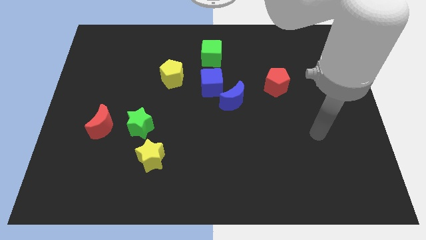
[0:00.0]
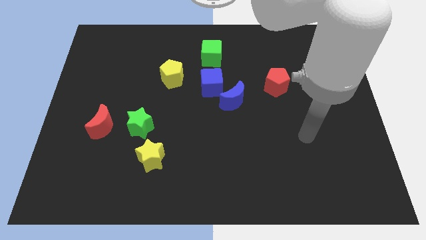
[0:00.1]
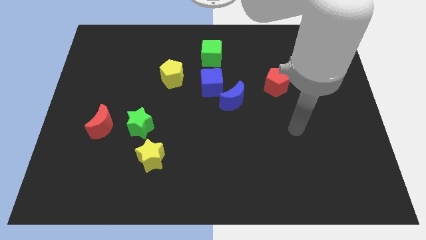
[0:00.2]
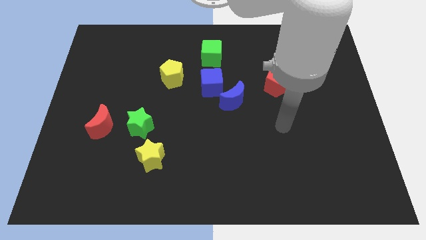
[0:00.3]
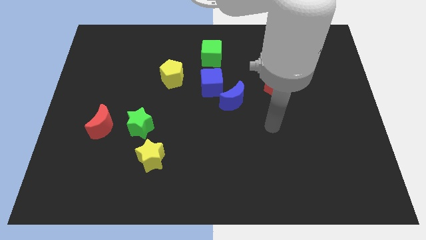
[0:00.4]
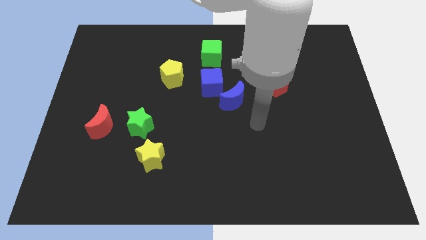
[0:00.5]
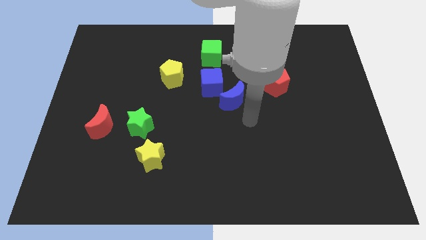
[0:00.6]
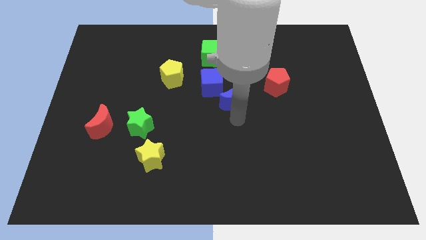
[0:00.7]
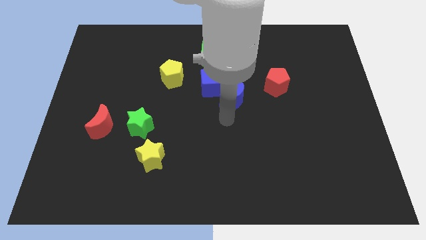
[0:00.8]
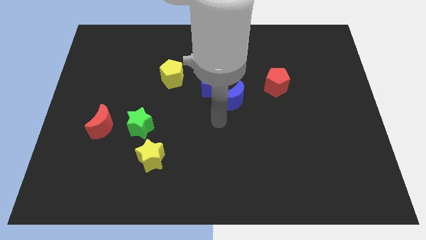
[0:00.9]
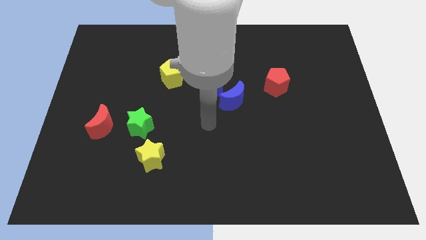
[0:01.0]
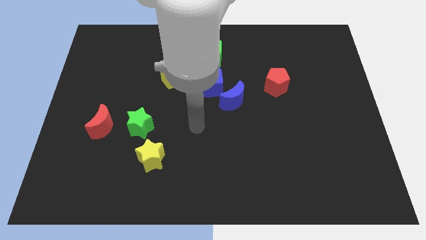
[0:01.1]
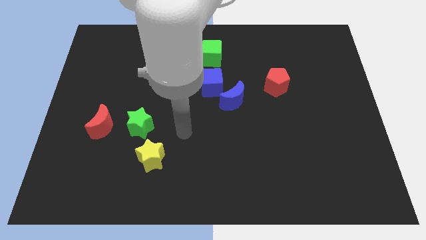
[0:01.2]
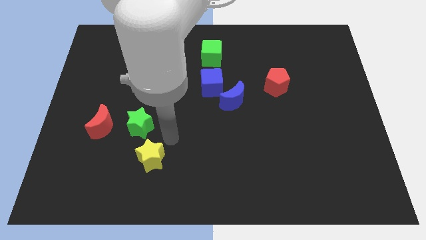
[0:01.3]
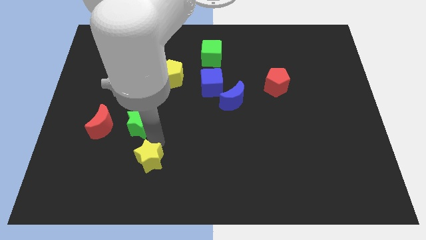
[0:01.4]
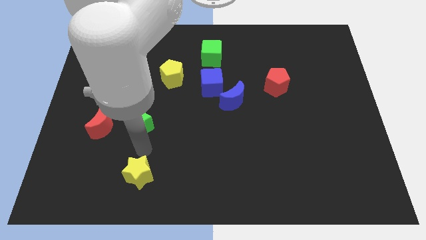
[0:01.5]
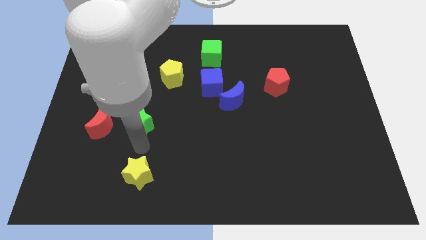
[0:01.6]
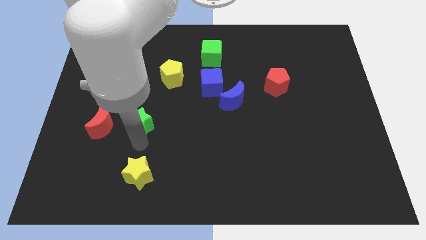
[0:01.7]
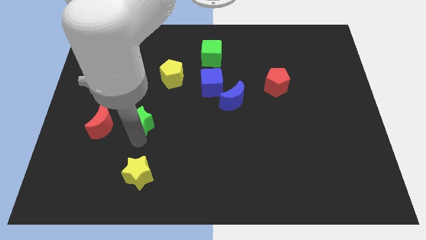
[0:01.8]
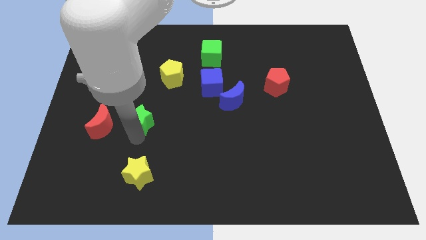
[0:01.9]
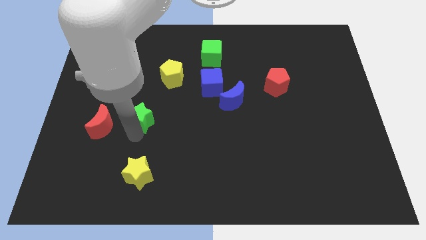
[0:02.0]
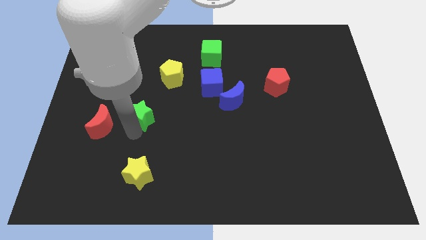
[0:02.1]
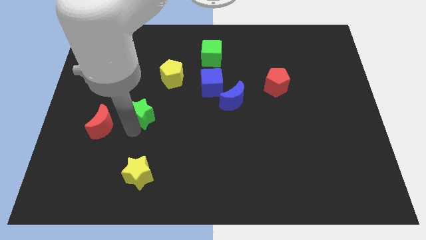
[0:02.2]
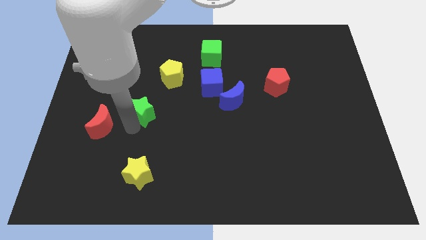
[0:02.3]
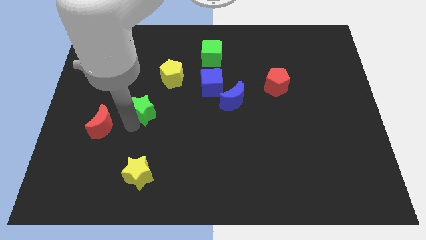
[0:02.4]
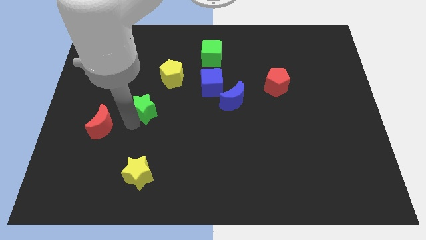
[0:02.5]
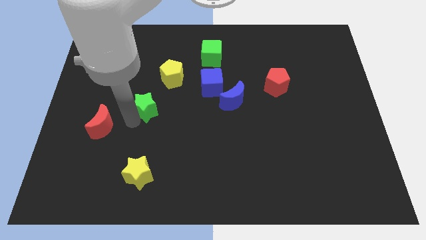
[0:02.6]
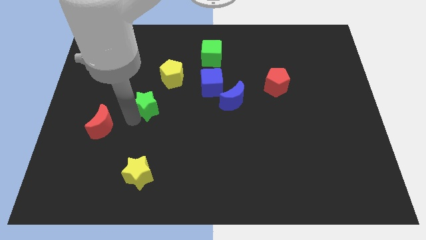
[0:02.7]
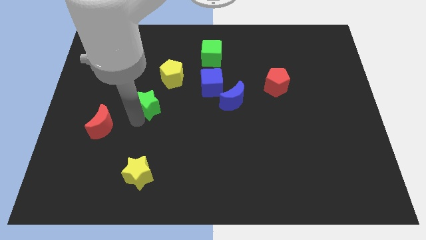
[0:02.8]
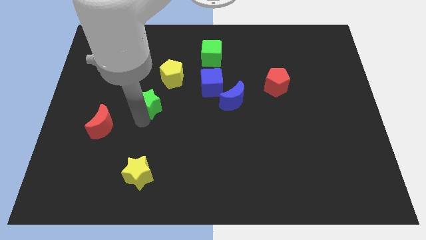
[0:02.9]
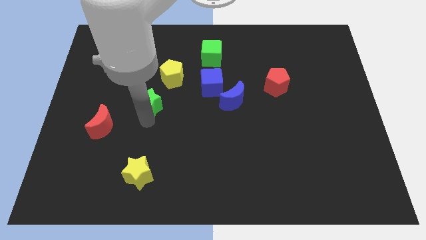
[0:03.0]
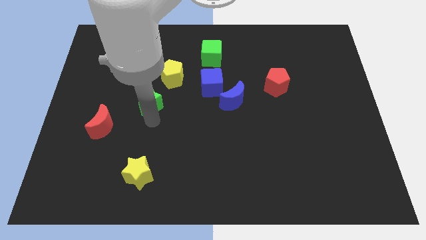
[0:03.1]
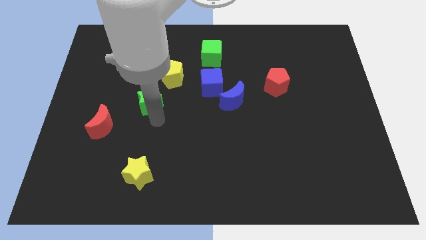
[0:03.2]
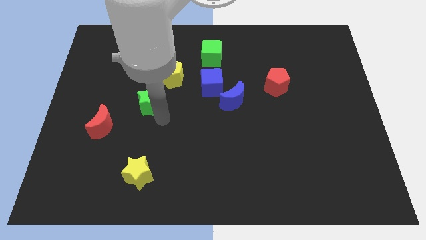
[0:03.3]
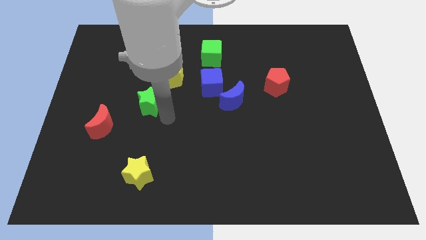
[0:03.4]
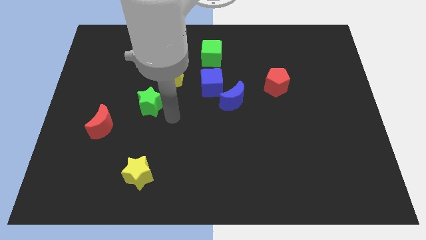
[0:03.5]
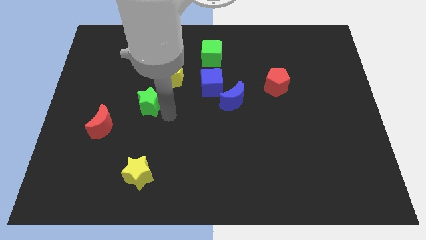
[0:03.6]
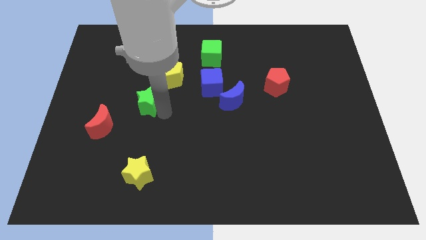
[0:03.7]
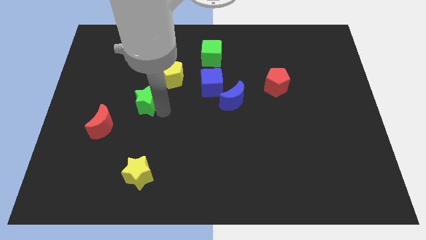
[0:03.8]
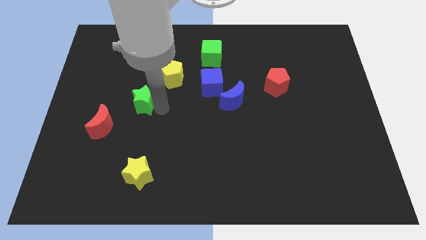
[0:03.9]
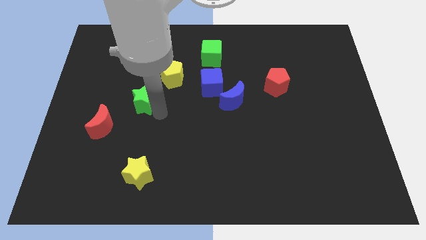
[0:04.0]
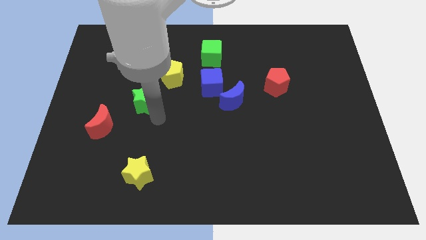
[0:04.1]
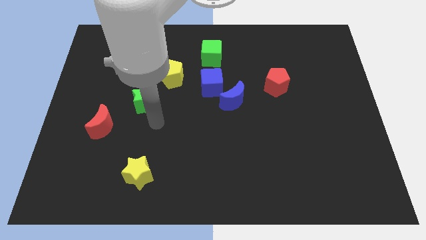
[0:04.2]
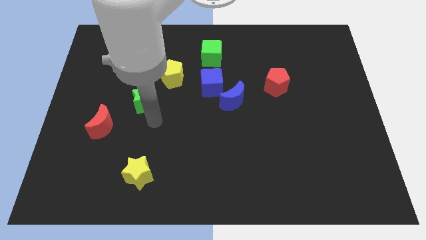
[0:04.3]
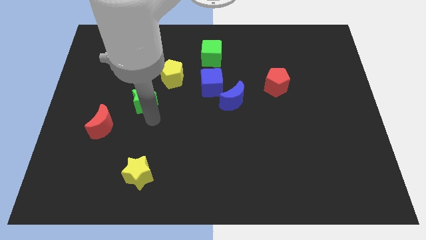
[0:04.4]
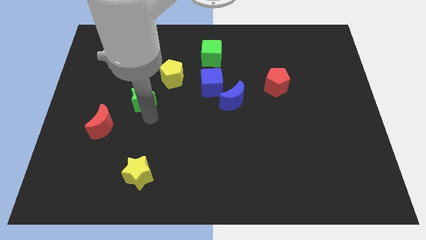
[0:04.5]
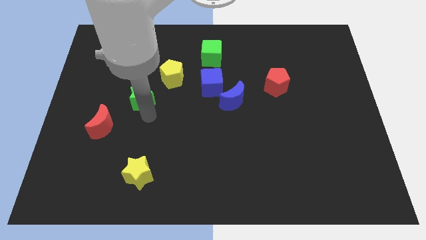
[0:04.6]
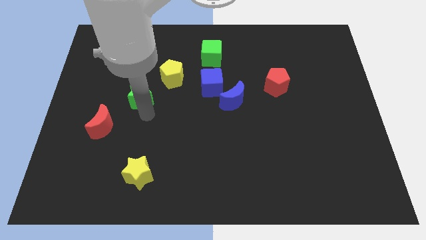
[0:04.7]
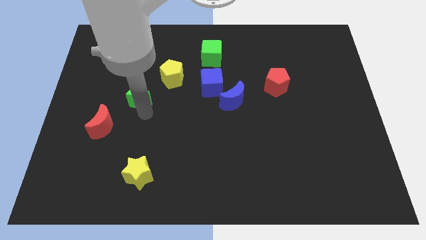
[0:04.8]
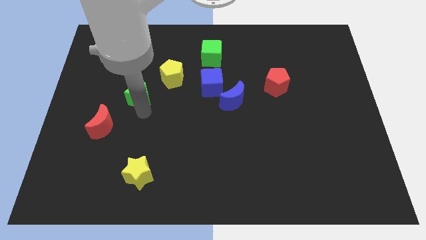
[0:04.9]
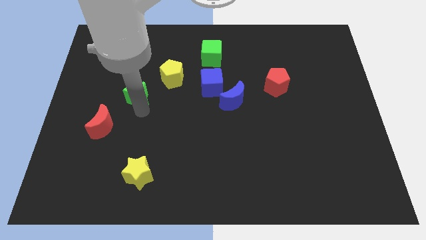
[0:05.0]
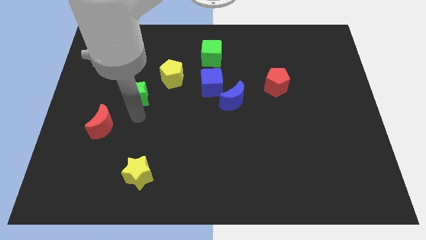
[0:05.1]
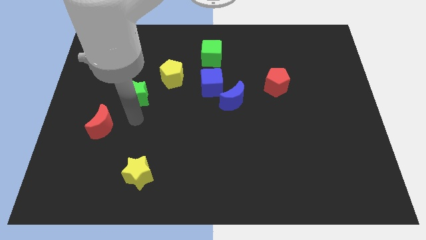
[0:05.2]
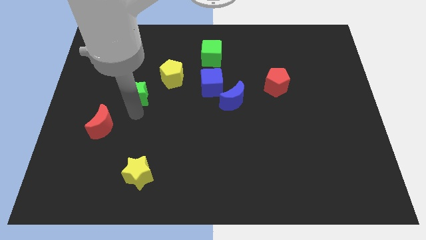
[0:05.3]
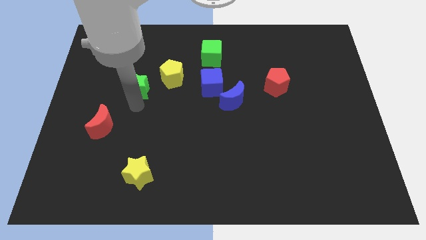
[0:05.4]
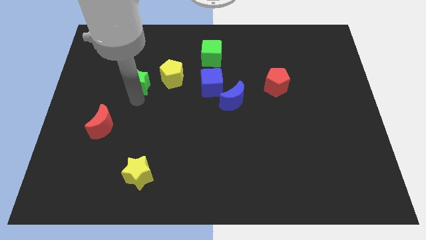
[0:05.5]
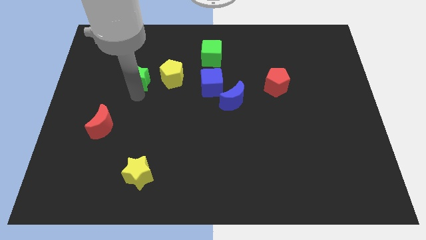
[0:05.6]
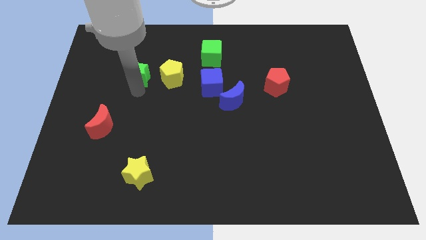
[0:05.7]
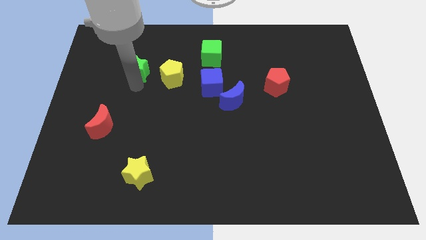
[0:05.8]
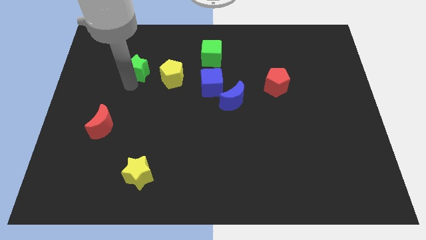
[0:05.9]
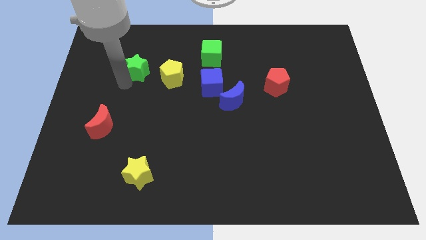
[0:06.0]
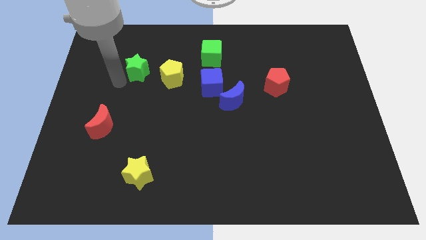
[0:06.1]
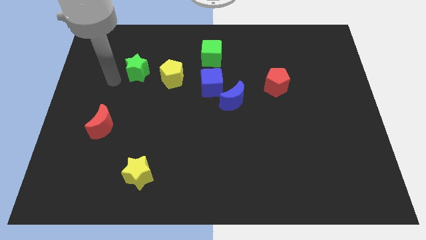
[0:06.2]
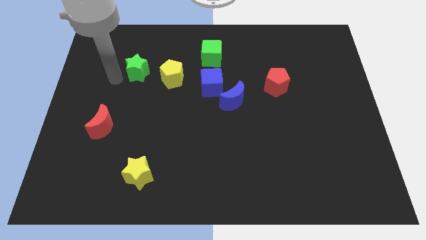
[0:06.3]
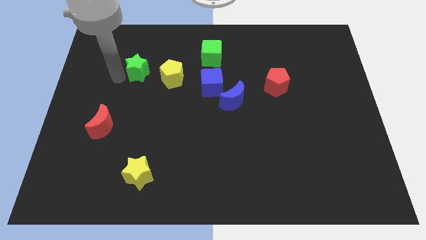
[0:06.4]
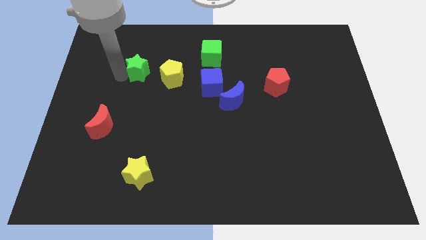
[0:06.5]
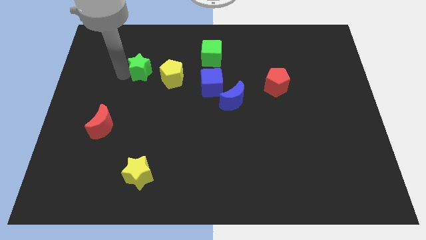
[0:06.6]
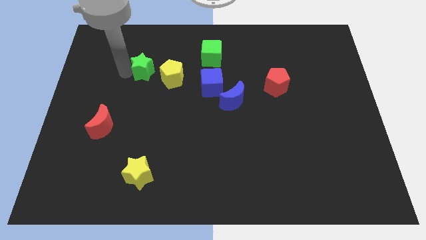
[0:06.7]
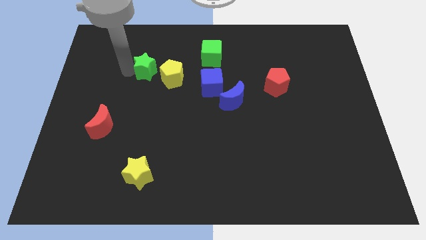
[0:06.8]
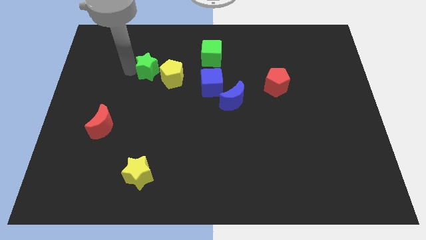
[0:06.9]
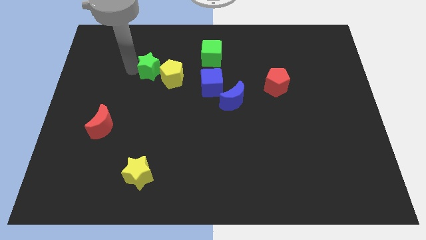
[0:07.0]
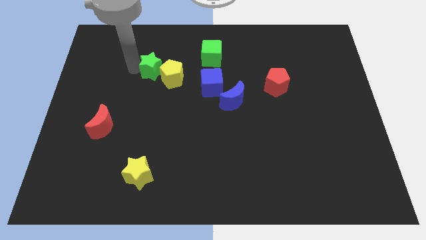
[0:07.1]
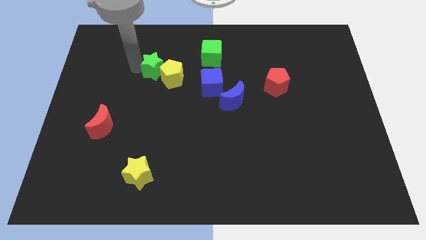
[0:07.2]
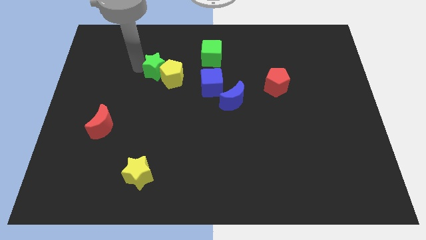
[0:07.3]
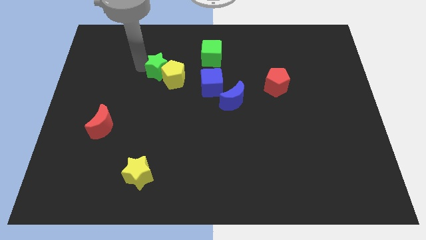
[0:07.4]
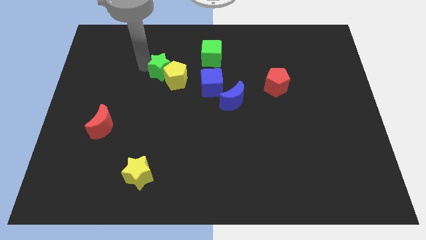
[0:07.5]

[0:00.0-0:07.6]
push the green star to the left of the green cube
